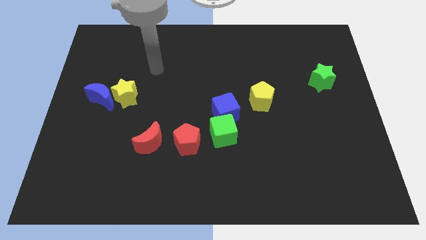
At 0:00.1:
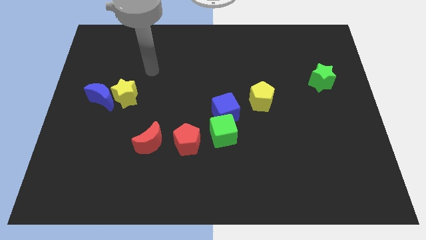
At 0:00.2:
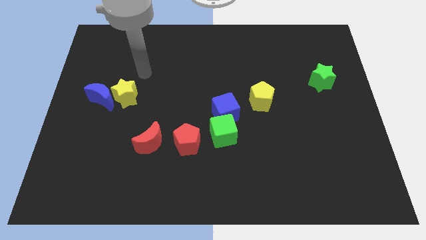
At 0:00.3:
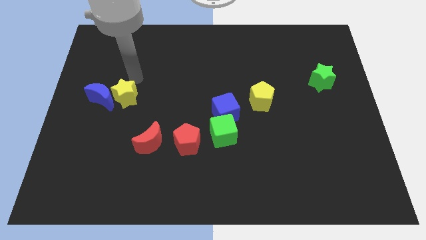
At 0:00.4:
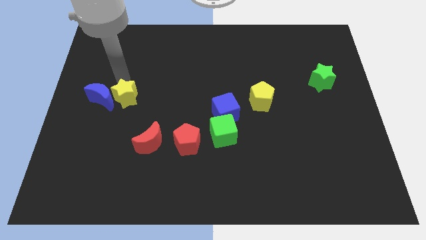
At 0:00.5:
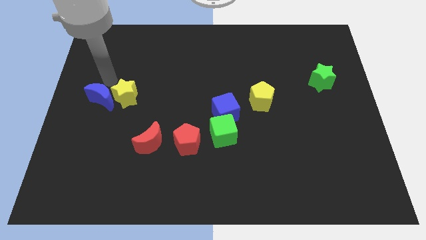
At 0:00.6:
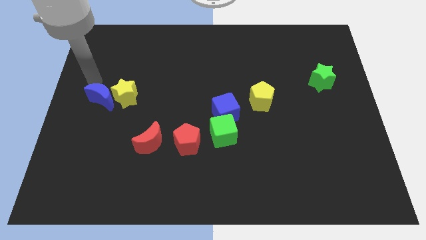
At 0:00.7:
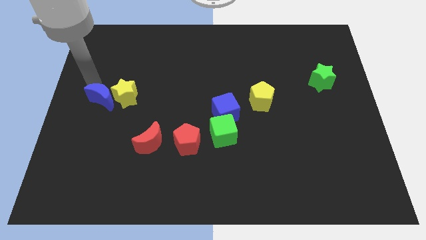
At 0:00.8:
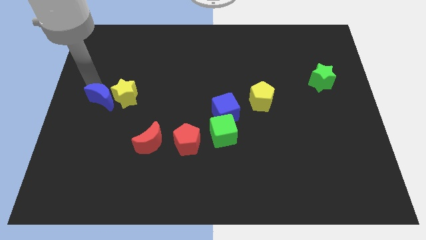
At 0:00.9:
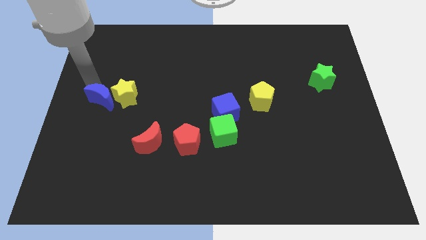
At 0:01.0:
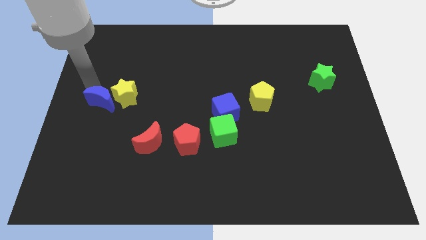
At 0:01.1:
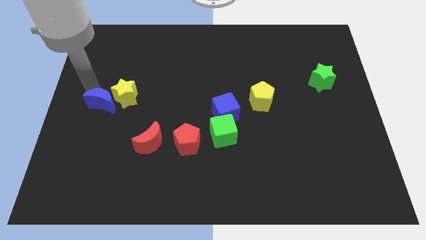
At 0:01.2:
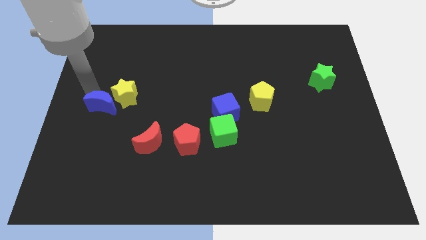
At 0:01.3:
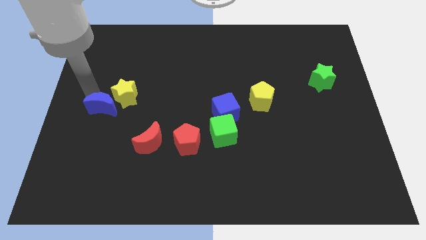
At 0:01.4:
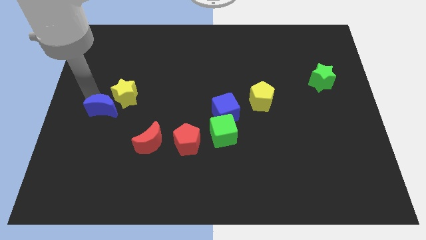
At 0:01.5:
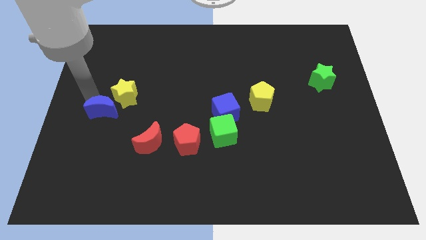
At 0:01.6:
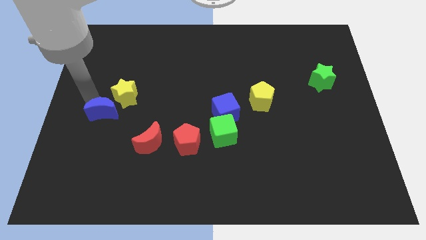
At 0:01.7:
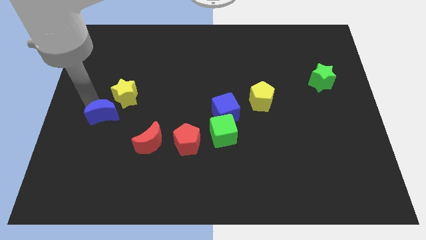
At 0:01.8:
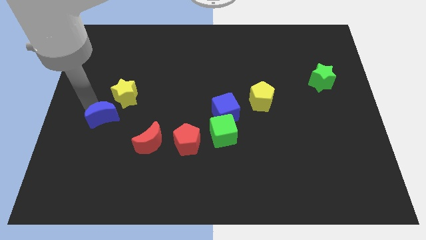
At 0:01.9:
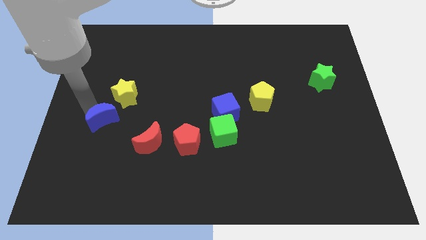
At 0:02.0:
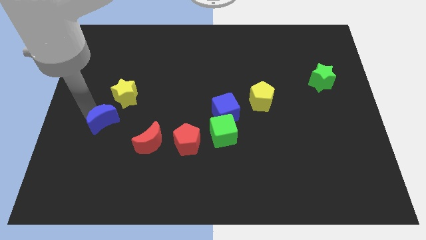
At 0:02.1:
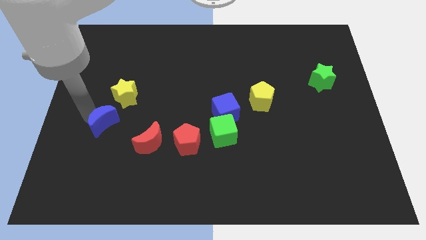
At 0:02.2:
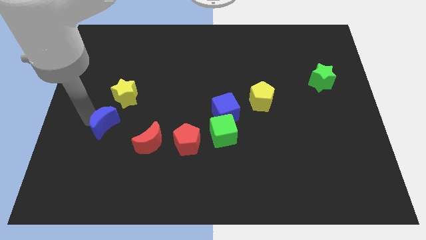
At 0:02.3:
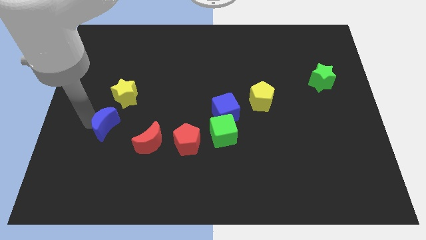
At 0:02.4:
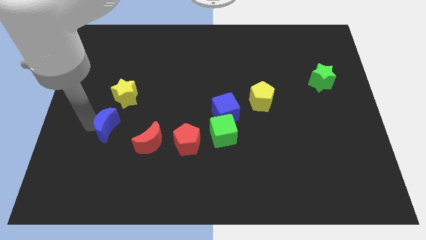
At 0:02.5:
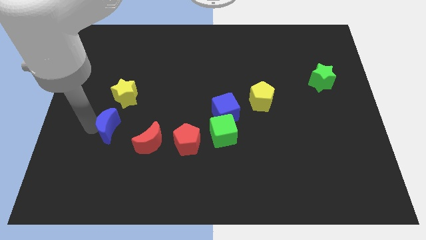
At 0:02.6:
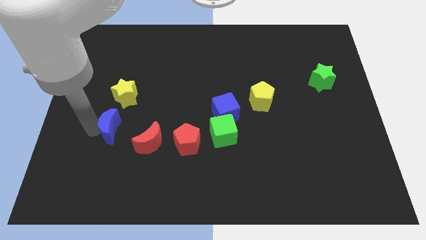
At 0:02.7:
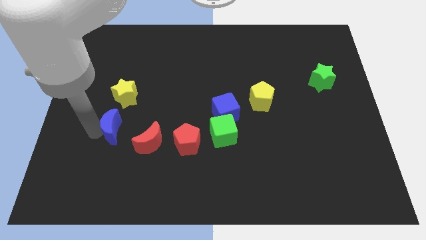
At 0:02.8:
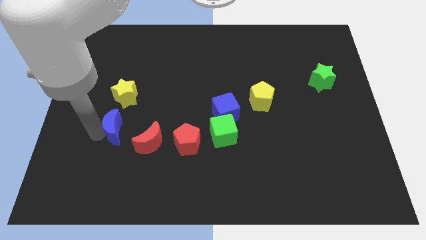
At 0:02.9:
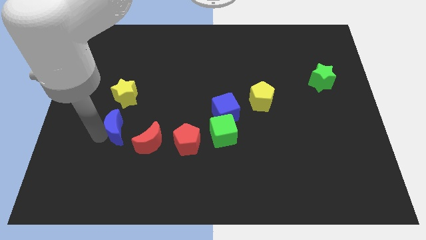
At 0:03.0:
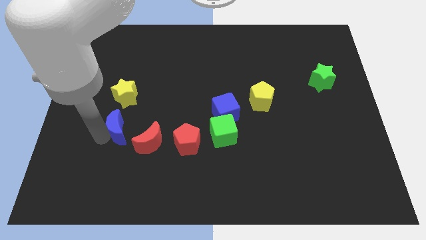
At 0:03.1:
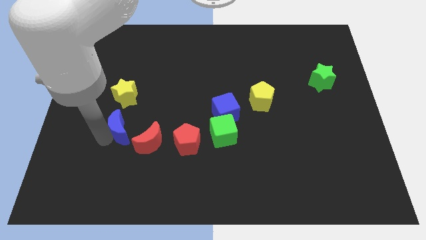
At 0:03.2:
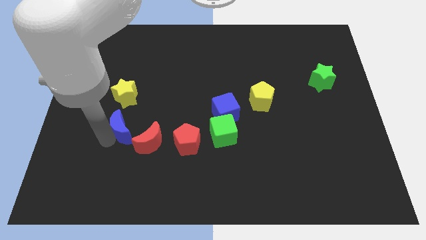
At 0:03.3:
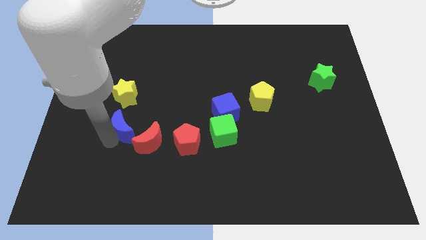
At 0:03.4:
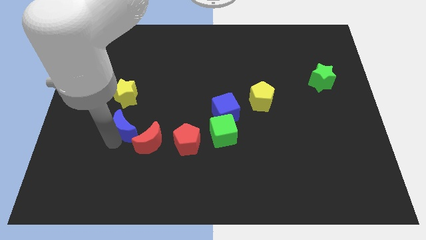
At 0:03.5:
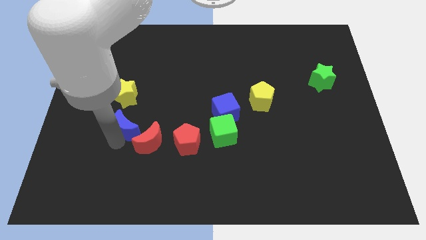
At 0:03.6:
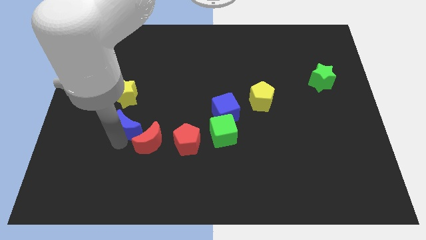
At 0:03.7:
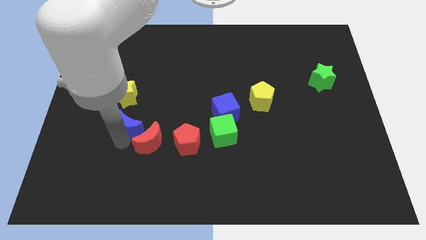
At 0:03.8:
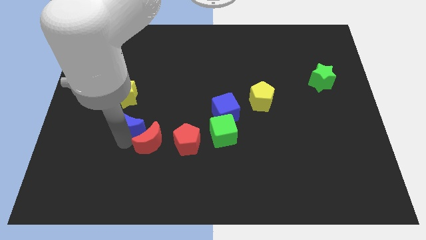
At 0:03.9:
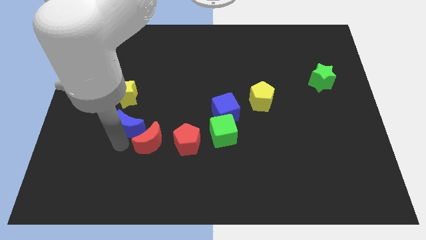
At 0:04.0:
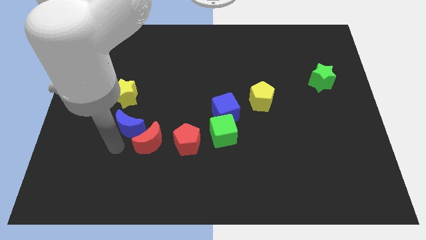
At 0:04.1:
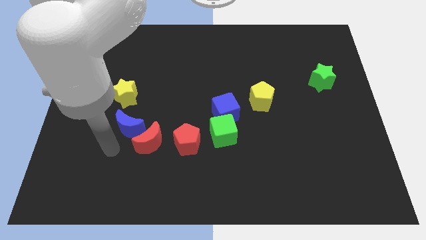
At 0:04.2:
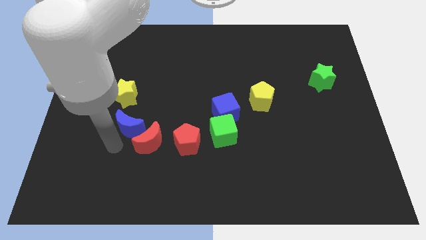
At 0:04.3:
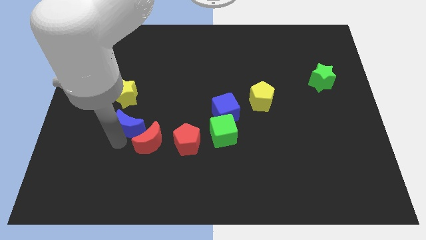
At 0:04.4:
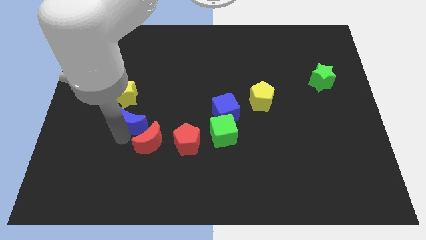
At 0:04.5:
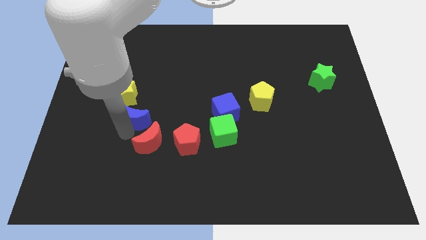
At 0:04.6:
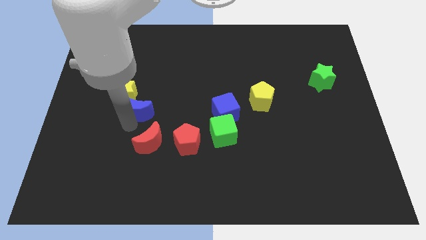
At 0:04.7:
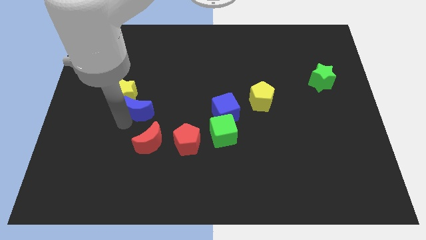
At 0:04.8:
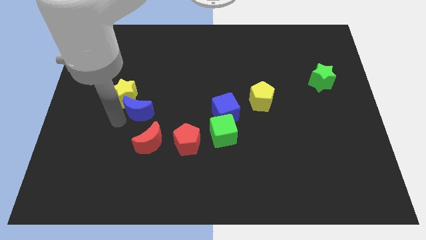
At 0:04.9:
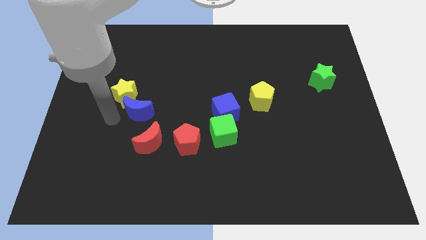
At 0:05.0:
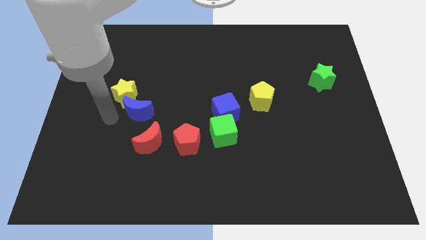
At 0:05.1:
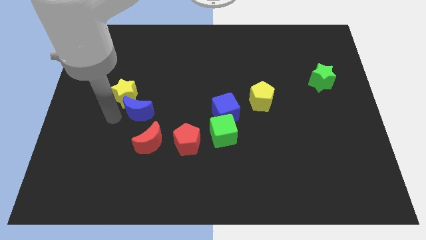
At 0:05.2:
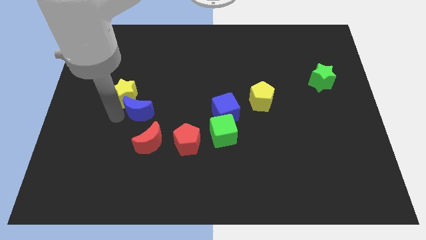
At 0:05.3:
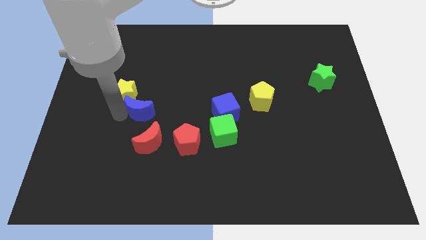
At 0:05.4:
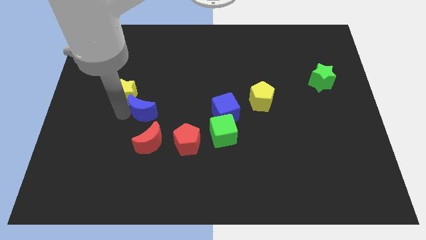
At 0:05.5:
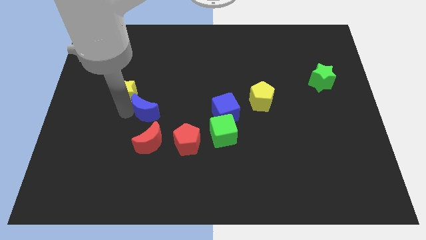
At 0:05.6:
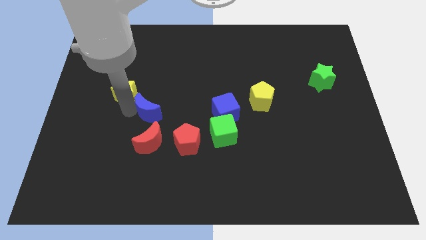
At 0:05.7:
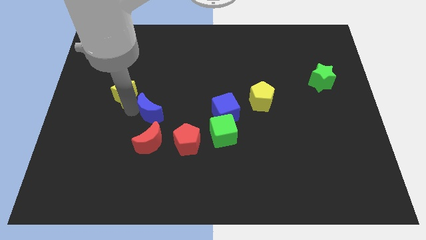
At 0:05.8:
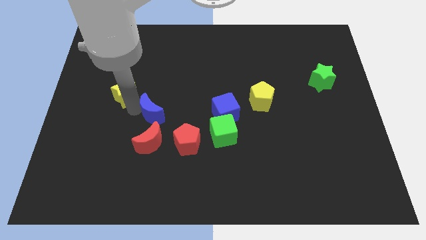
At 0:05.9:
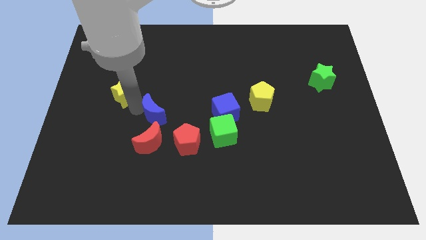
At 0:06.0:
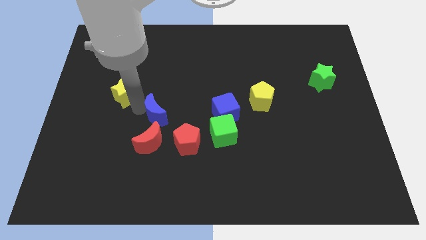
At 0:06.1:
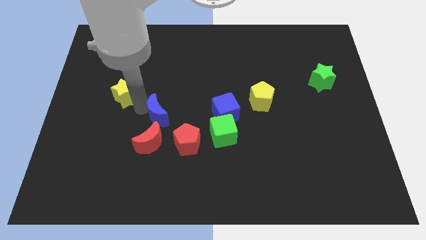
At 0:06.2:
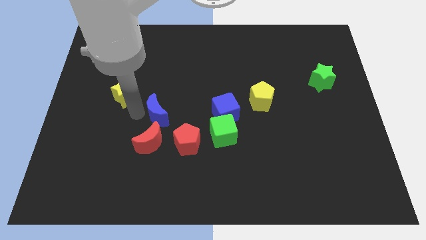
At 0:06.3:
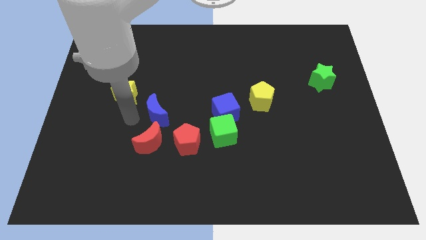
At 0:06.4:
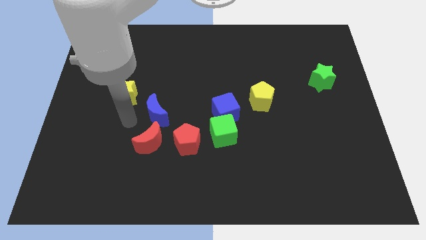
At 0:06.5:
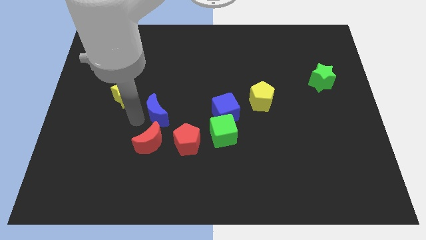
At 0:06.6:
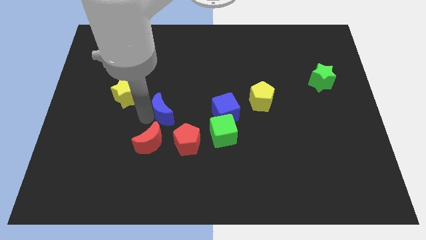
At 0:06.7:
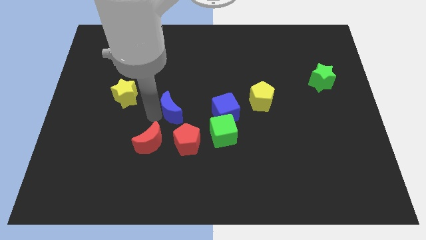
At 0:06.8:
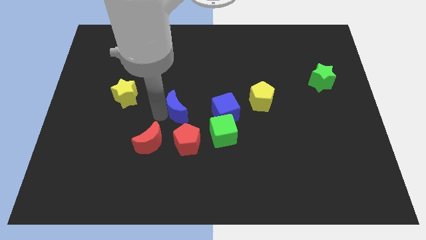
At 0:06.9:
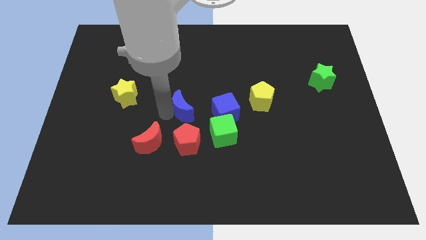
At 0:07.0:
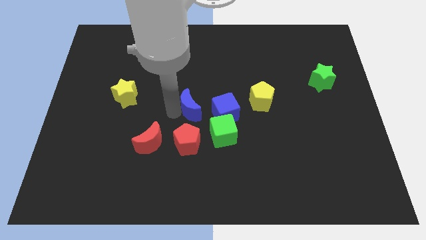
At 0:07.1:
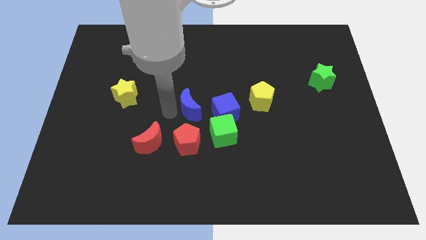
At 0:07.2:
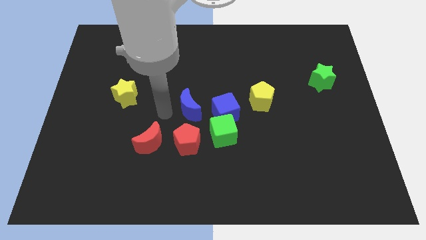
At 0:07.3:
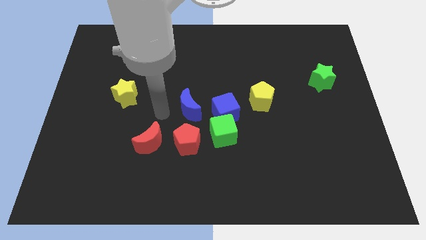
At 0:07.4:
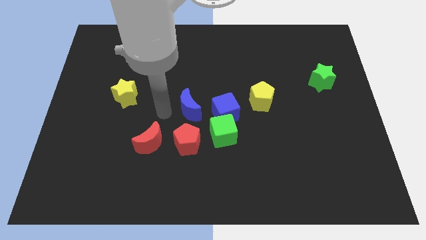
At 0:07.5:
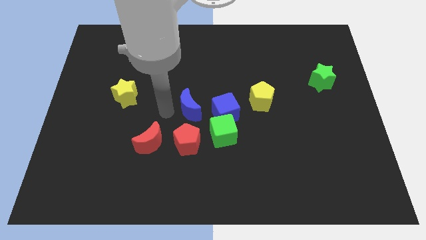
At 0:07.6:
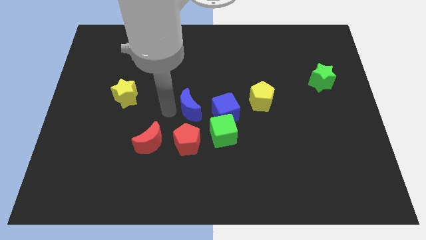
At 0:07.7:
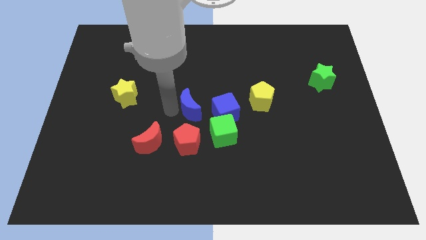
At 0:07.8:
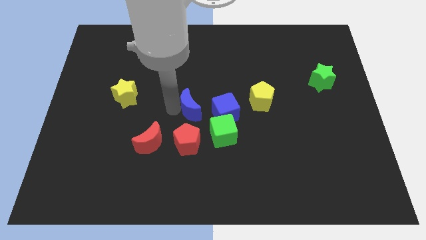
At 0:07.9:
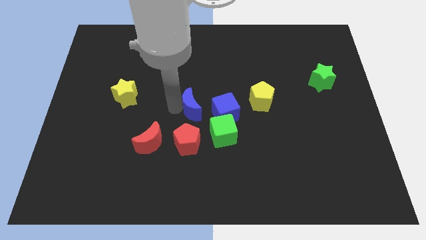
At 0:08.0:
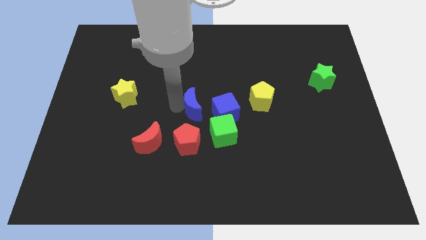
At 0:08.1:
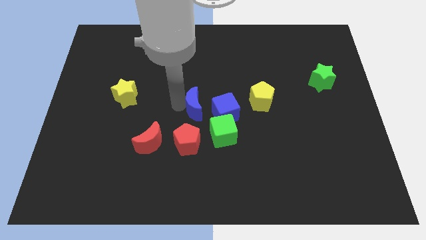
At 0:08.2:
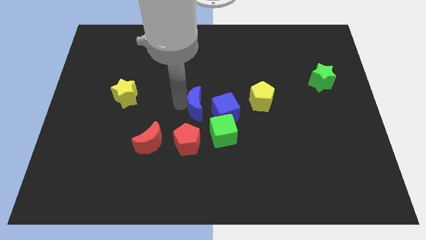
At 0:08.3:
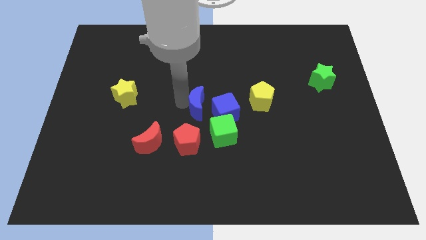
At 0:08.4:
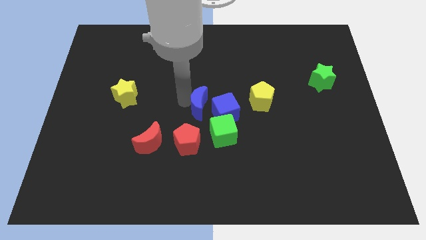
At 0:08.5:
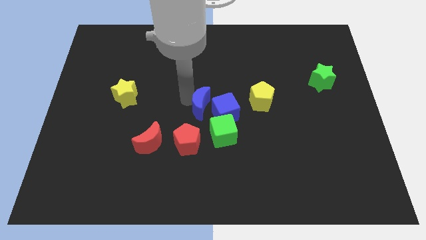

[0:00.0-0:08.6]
slide the blue moon close to the blue cube
